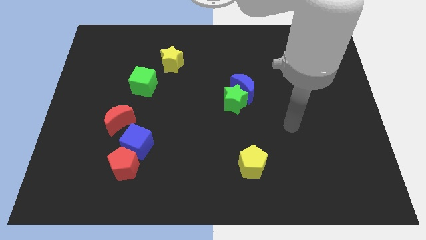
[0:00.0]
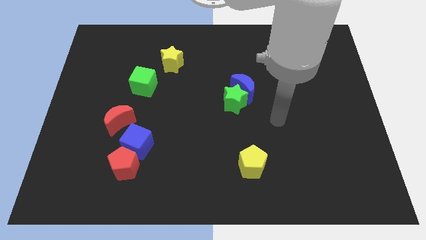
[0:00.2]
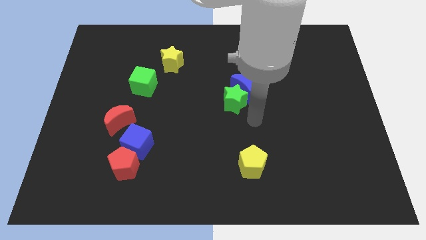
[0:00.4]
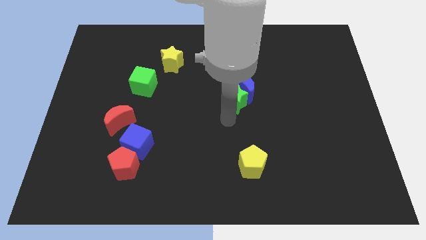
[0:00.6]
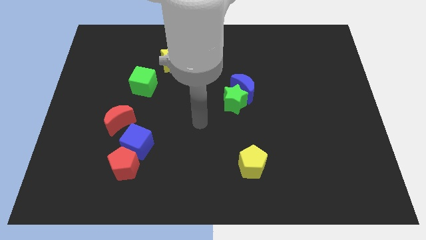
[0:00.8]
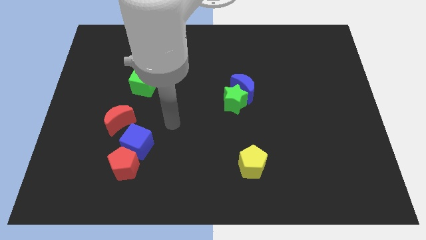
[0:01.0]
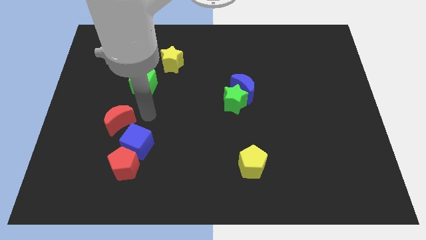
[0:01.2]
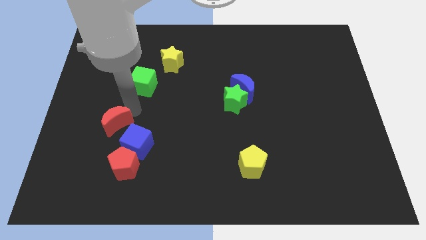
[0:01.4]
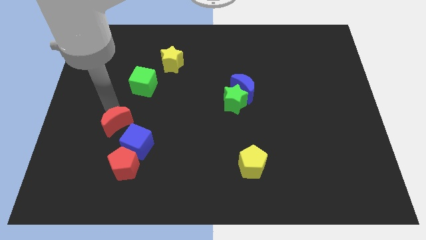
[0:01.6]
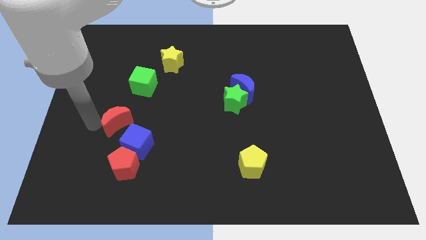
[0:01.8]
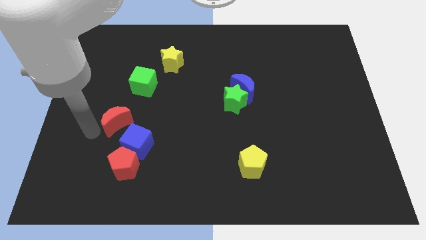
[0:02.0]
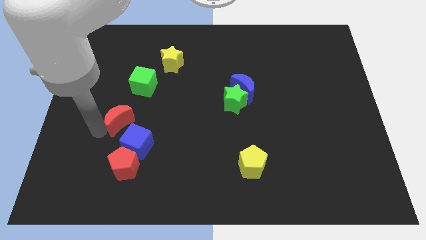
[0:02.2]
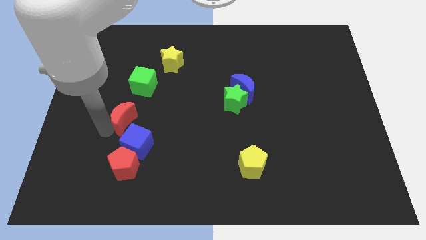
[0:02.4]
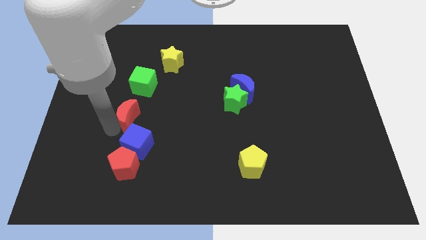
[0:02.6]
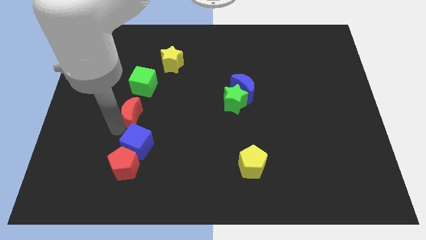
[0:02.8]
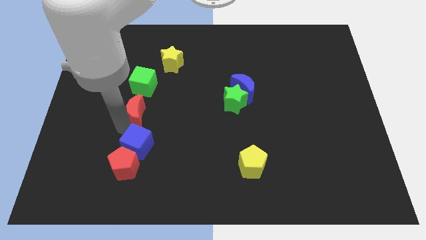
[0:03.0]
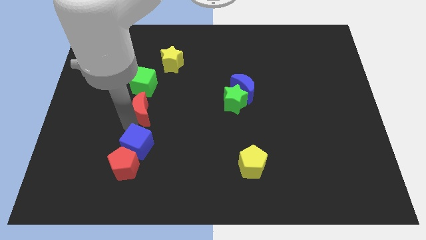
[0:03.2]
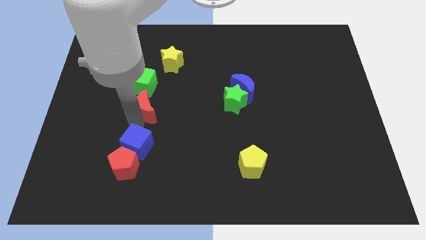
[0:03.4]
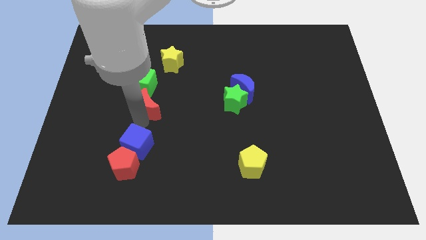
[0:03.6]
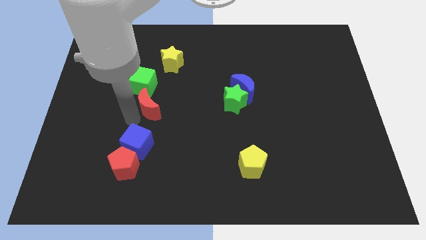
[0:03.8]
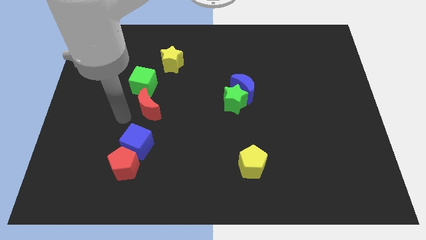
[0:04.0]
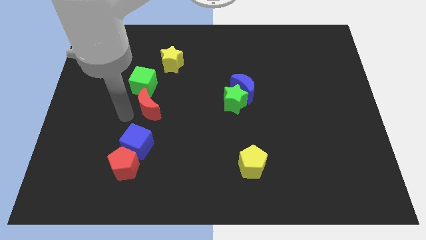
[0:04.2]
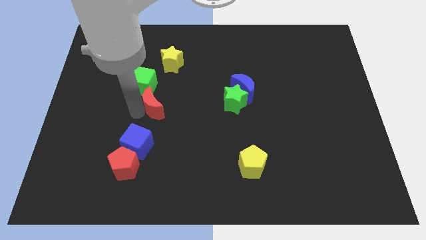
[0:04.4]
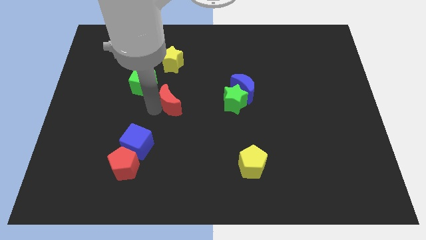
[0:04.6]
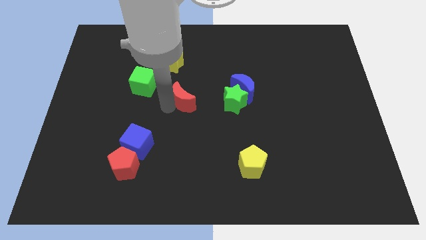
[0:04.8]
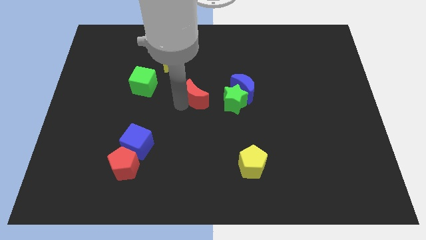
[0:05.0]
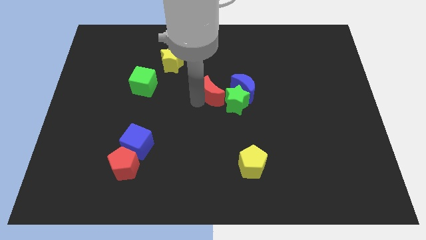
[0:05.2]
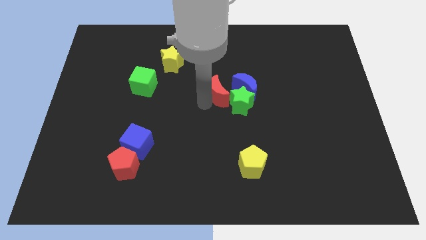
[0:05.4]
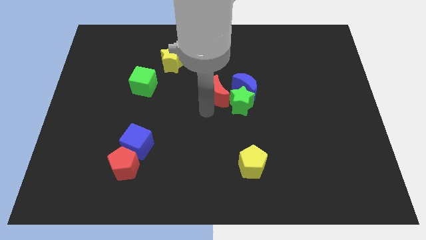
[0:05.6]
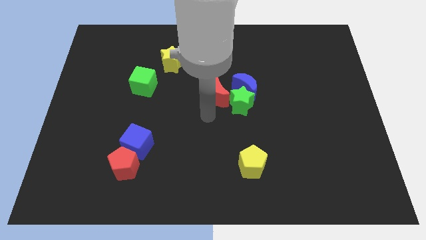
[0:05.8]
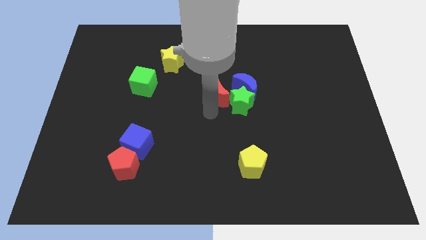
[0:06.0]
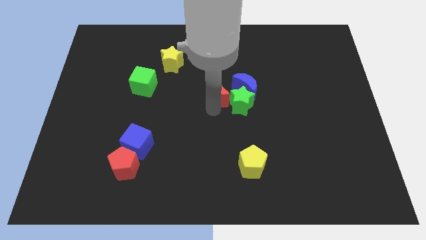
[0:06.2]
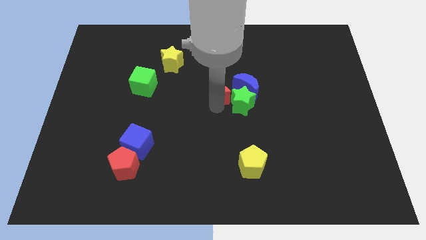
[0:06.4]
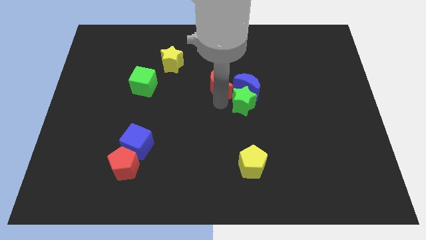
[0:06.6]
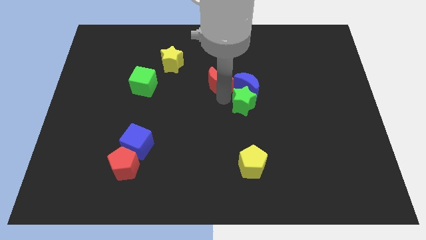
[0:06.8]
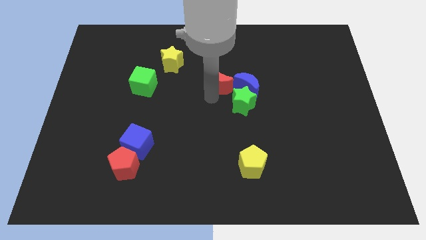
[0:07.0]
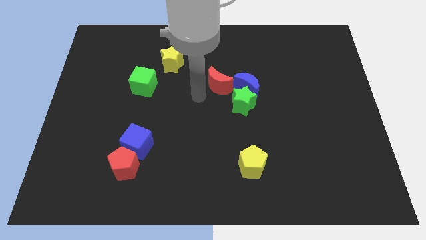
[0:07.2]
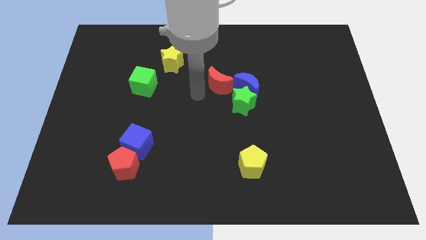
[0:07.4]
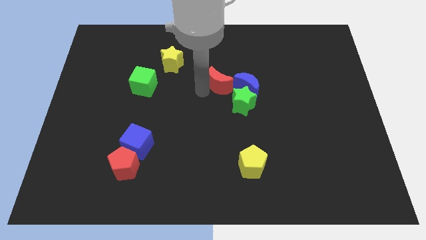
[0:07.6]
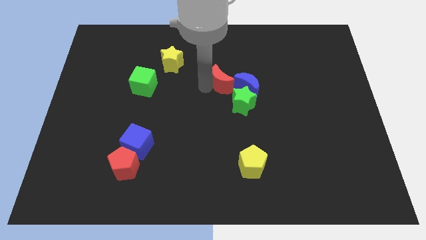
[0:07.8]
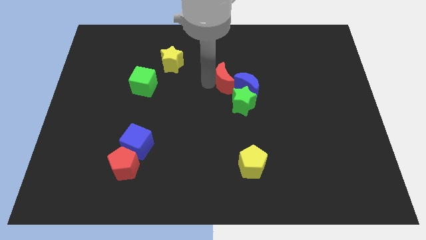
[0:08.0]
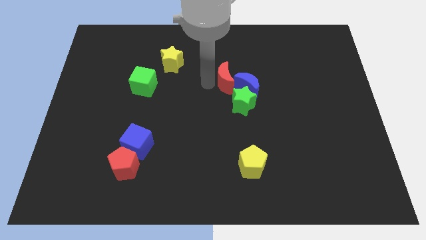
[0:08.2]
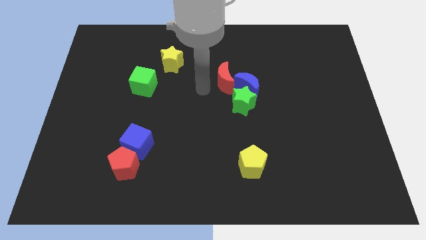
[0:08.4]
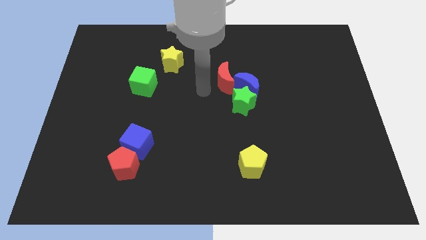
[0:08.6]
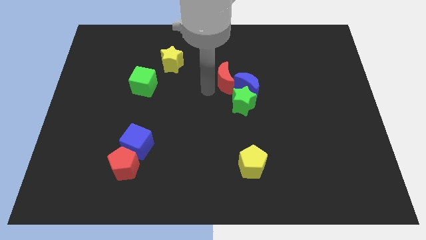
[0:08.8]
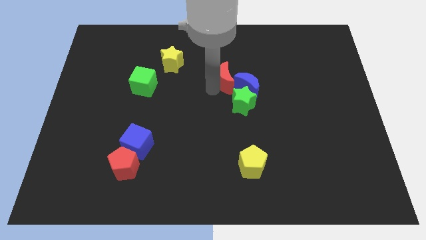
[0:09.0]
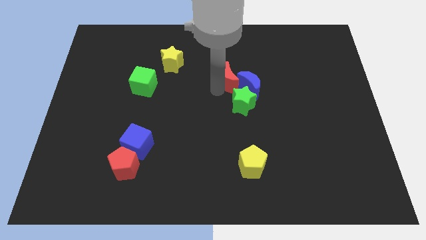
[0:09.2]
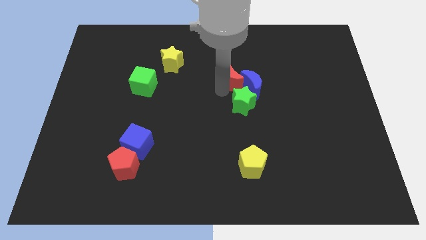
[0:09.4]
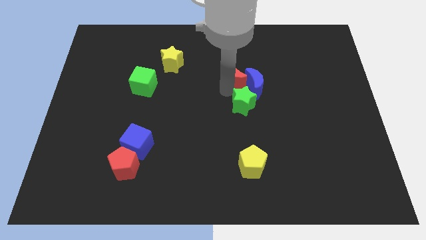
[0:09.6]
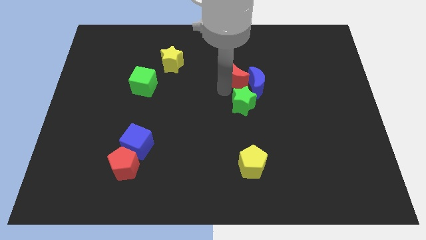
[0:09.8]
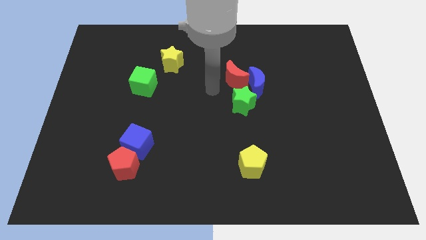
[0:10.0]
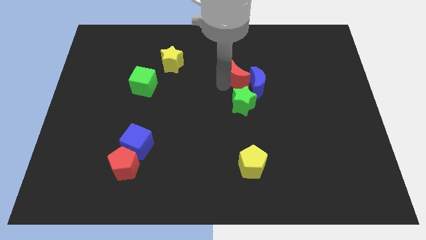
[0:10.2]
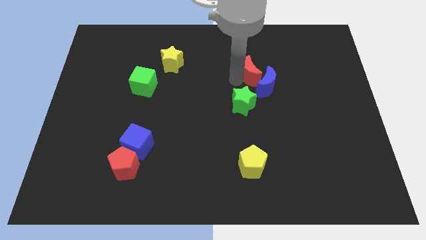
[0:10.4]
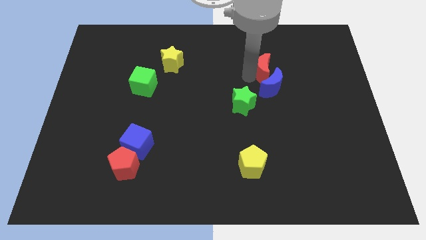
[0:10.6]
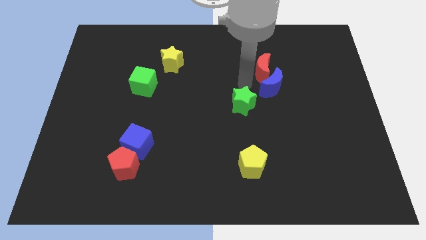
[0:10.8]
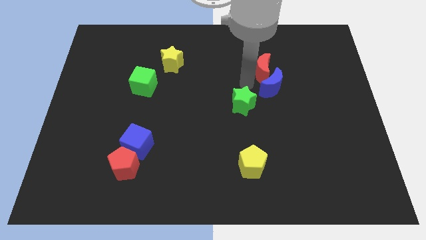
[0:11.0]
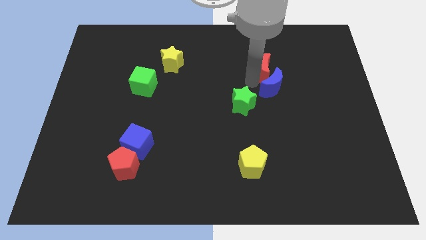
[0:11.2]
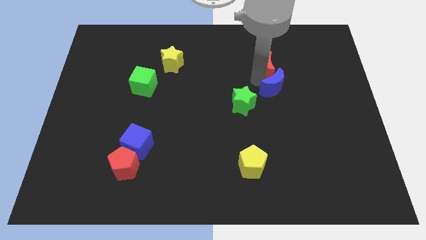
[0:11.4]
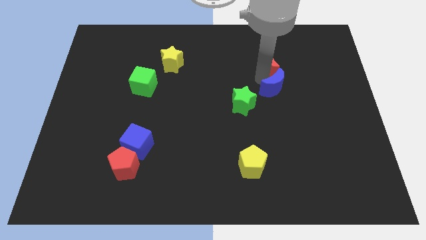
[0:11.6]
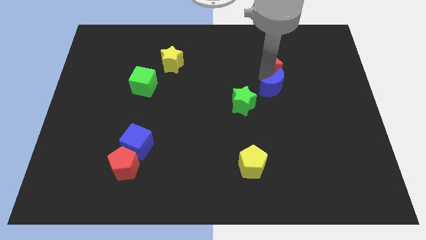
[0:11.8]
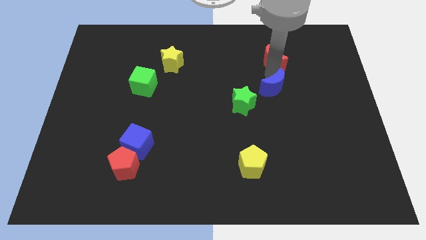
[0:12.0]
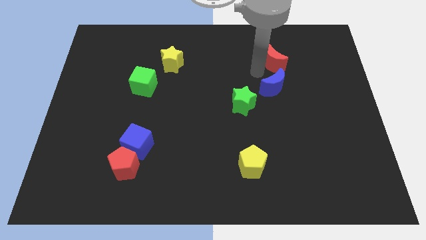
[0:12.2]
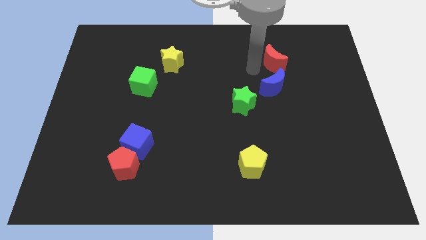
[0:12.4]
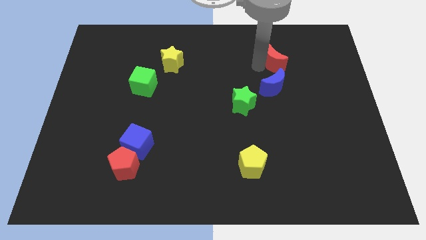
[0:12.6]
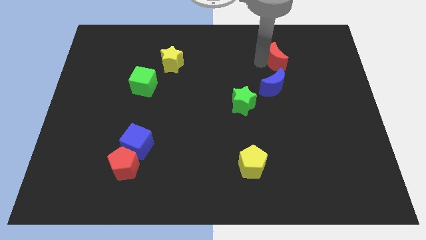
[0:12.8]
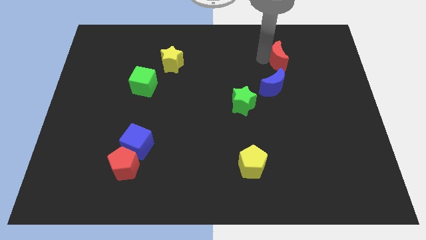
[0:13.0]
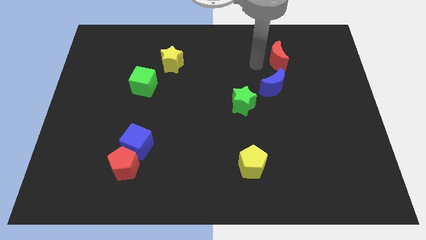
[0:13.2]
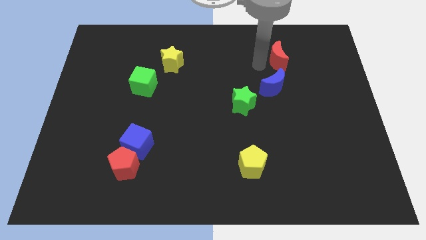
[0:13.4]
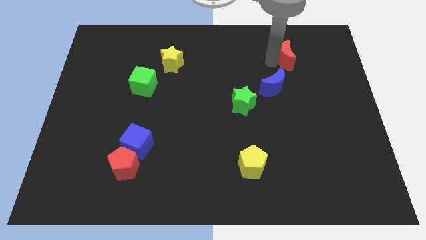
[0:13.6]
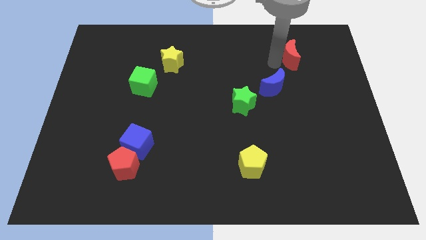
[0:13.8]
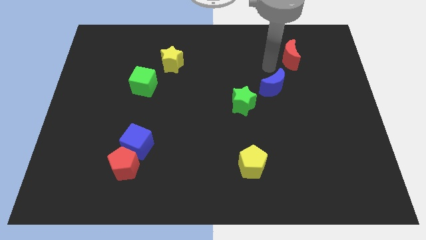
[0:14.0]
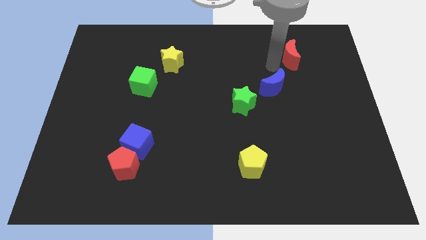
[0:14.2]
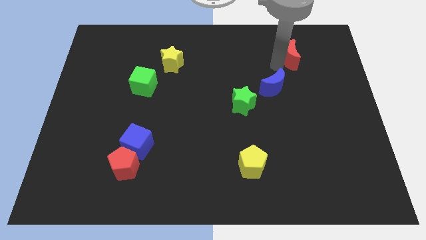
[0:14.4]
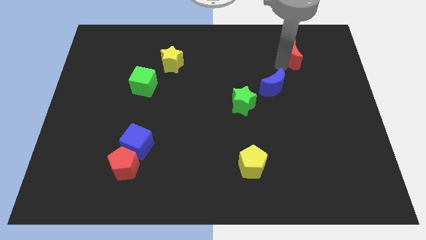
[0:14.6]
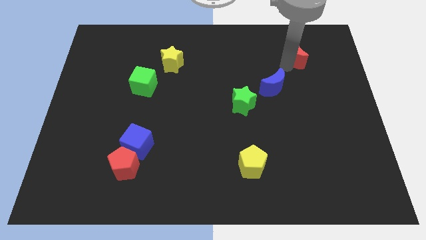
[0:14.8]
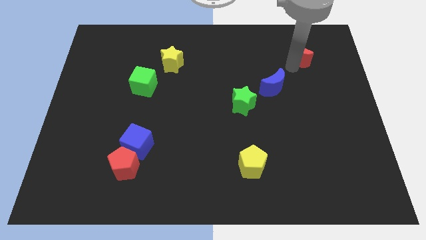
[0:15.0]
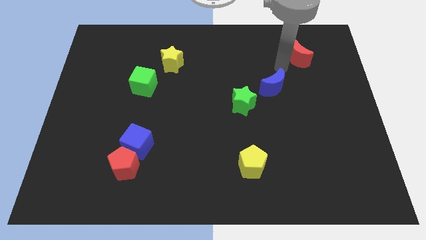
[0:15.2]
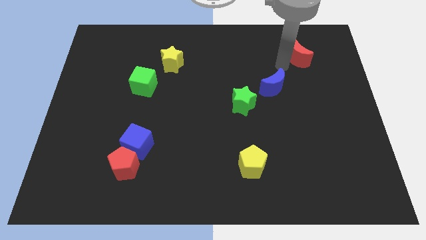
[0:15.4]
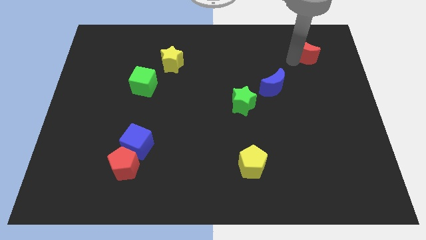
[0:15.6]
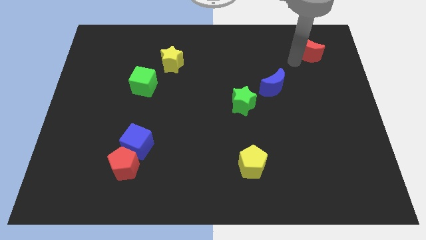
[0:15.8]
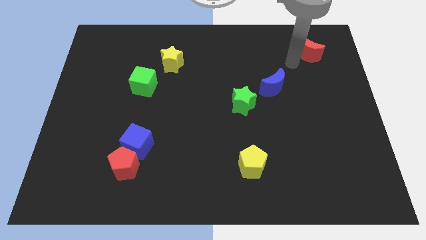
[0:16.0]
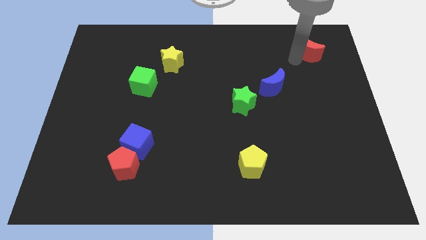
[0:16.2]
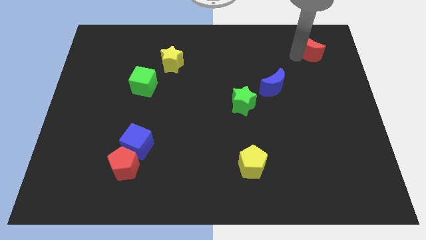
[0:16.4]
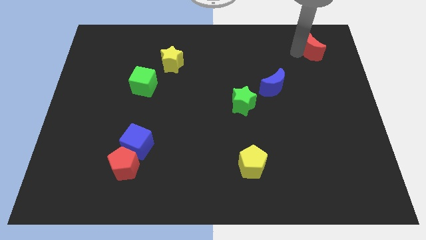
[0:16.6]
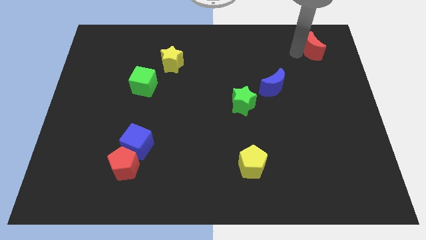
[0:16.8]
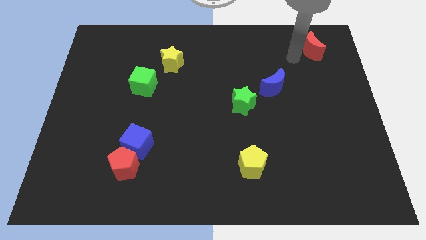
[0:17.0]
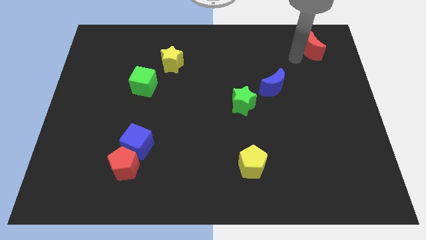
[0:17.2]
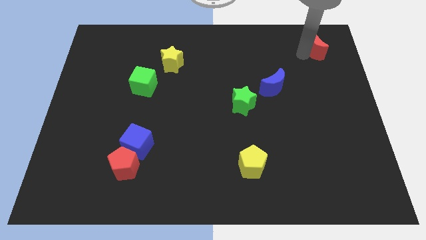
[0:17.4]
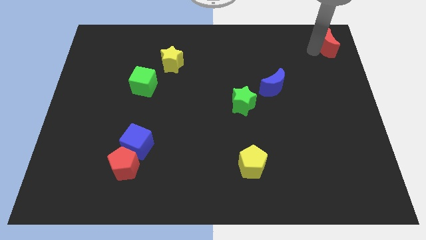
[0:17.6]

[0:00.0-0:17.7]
slide the red moon to the top right of the board
